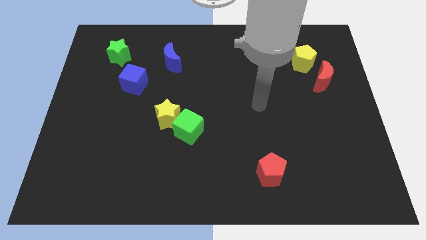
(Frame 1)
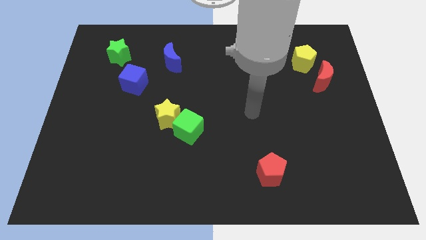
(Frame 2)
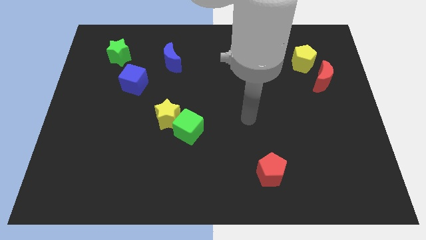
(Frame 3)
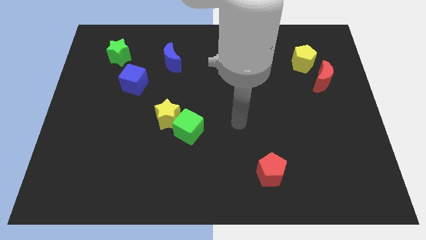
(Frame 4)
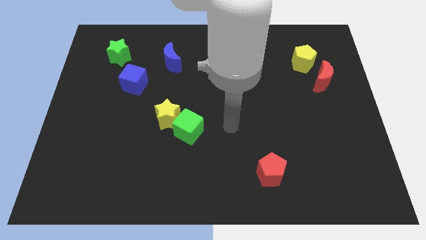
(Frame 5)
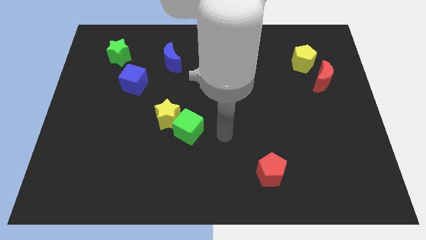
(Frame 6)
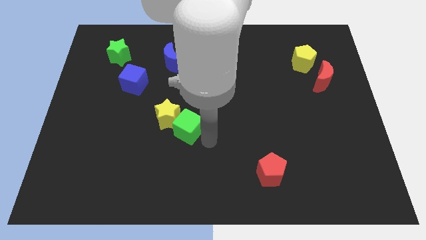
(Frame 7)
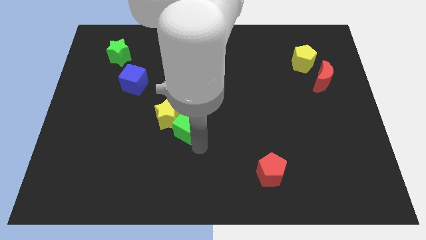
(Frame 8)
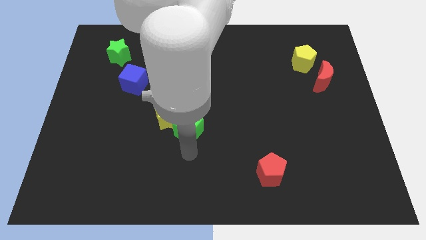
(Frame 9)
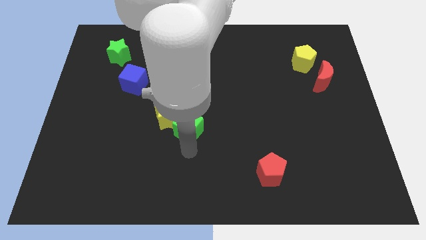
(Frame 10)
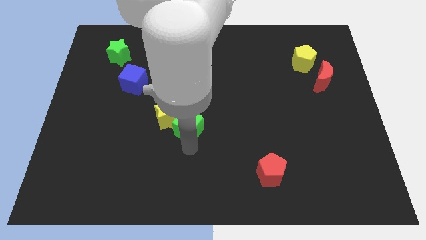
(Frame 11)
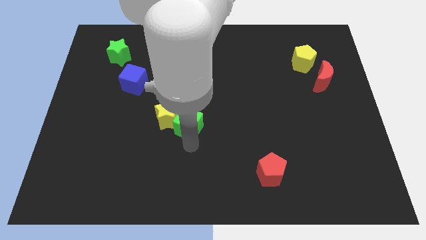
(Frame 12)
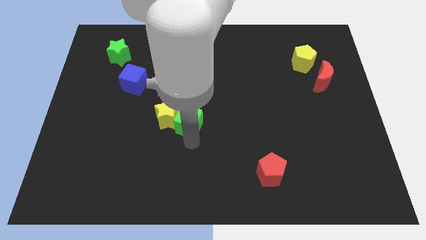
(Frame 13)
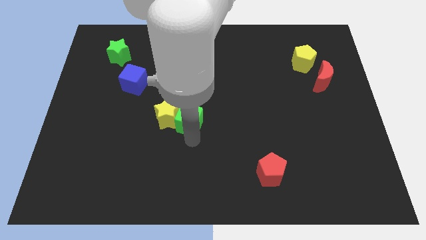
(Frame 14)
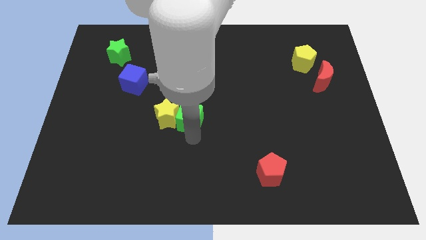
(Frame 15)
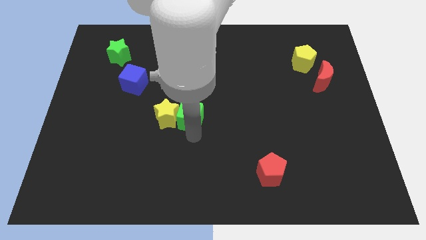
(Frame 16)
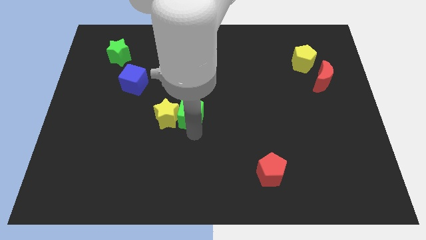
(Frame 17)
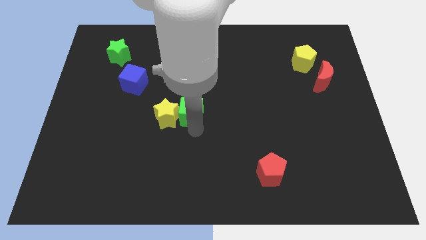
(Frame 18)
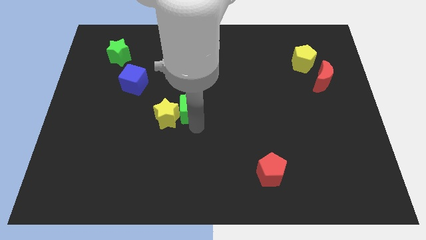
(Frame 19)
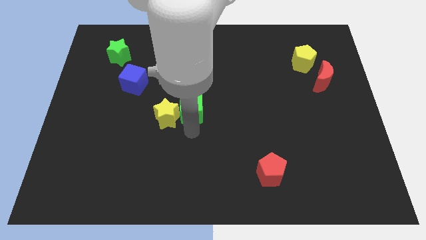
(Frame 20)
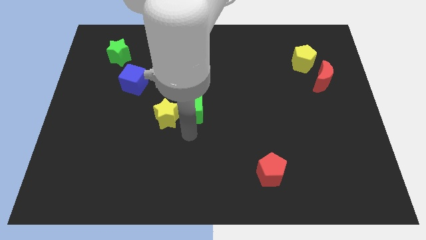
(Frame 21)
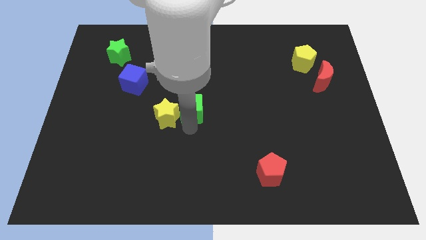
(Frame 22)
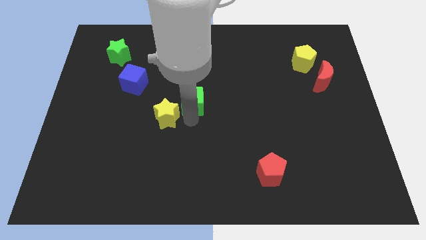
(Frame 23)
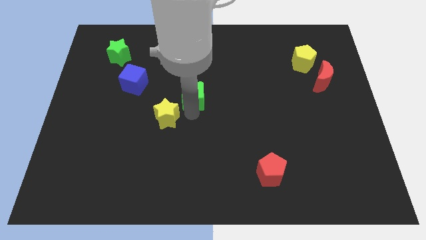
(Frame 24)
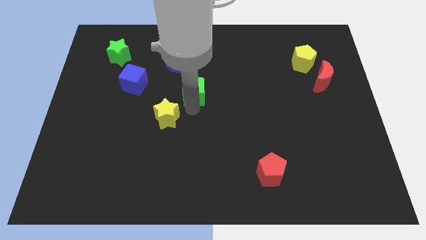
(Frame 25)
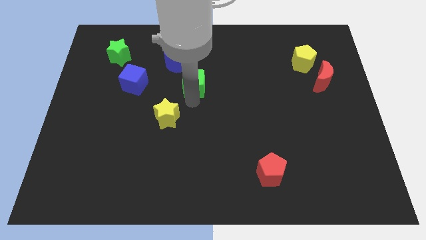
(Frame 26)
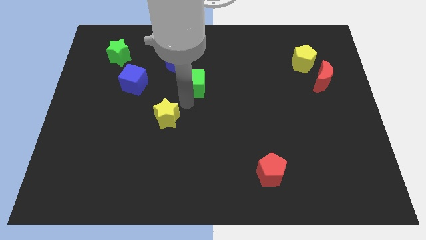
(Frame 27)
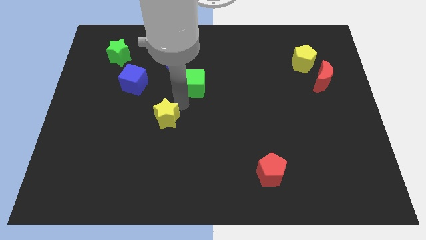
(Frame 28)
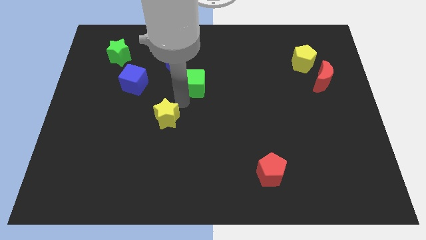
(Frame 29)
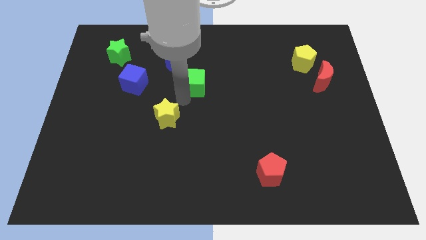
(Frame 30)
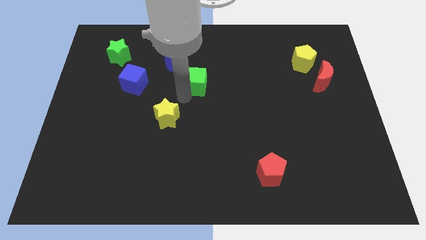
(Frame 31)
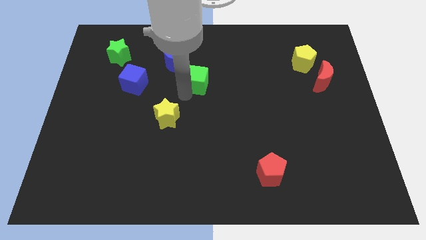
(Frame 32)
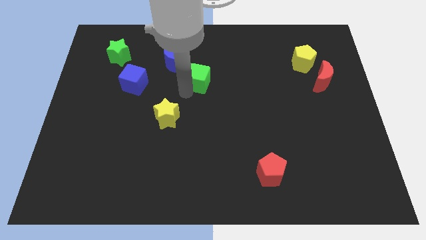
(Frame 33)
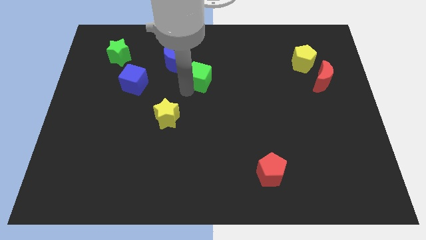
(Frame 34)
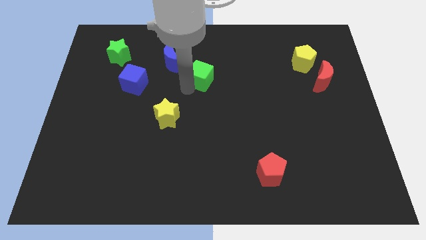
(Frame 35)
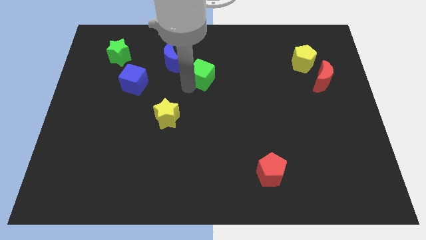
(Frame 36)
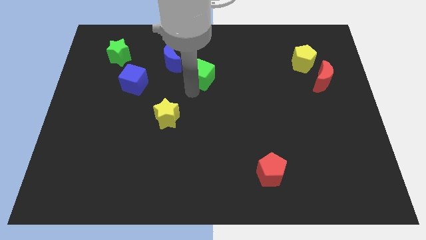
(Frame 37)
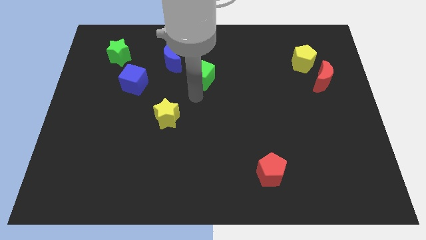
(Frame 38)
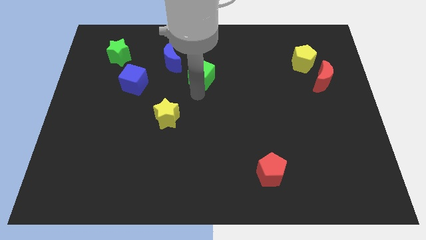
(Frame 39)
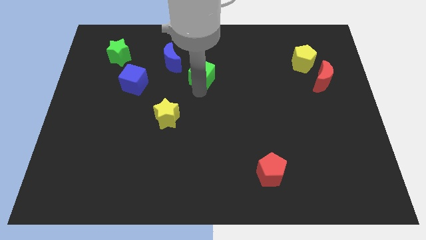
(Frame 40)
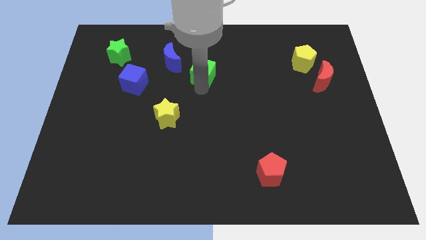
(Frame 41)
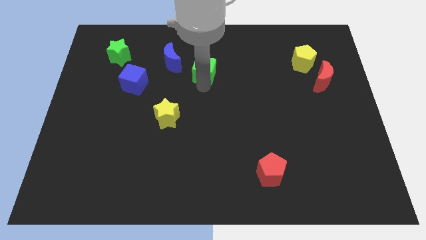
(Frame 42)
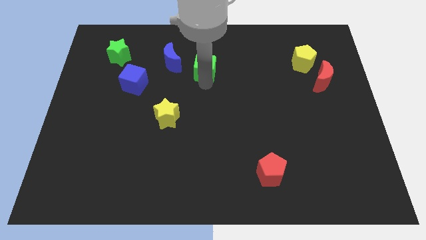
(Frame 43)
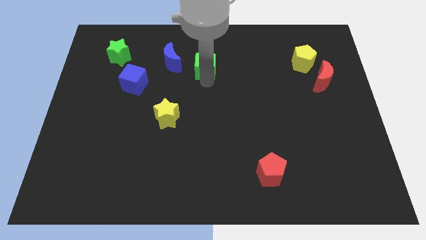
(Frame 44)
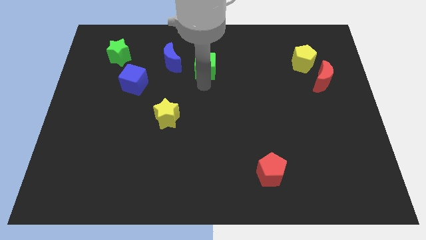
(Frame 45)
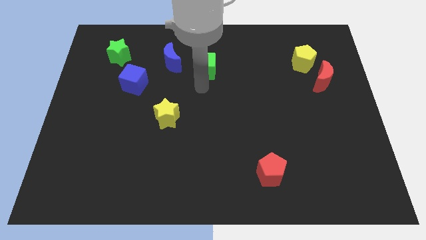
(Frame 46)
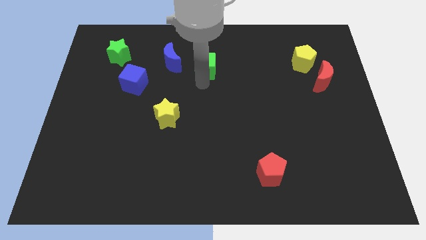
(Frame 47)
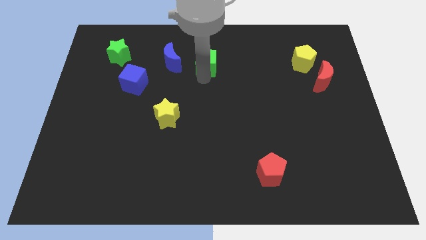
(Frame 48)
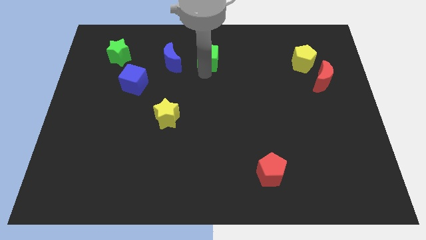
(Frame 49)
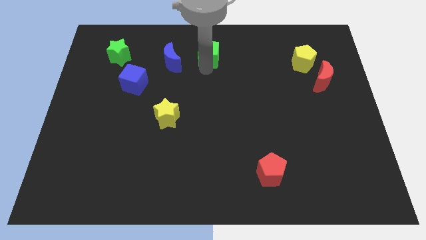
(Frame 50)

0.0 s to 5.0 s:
move the green cube to the top side

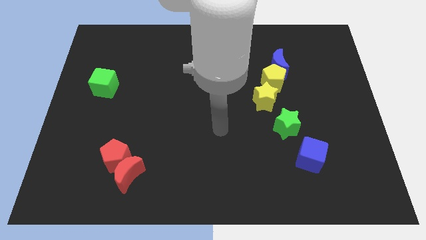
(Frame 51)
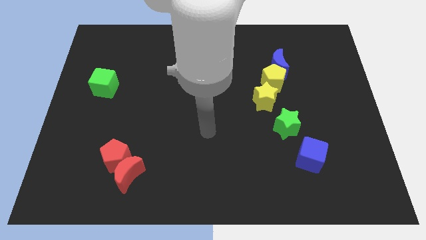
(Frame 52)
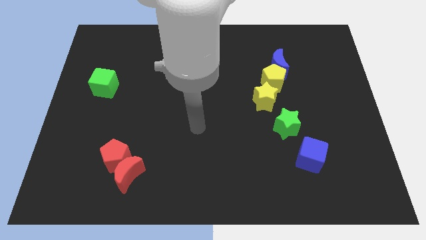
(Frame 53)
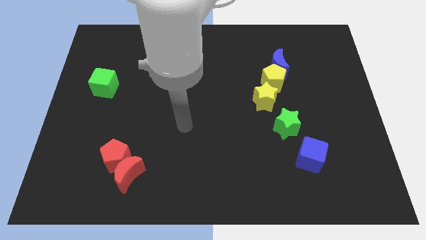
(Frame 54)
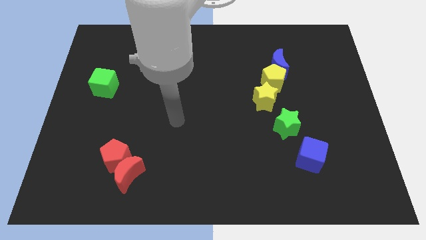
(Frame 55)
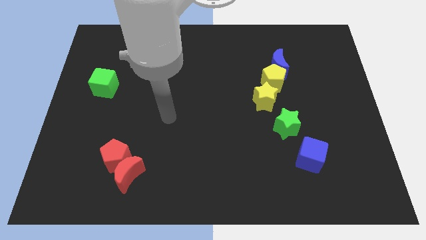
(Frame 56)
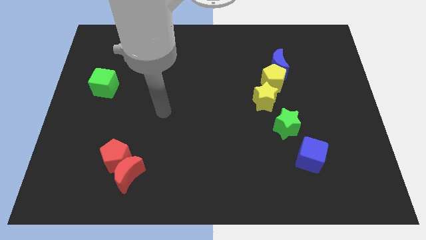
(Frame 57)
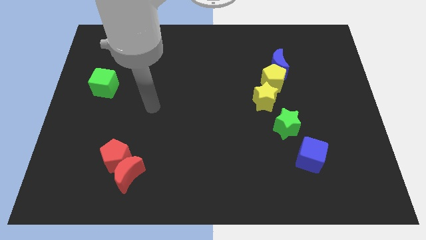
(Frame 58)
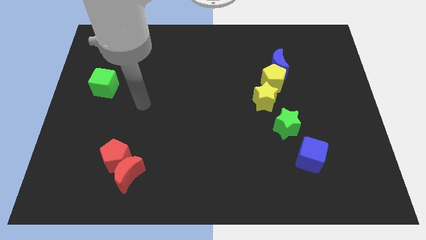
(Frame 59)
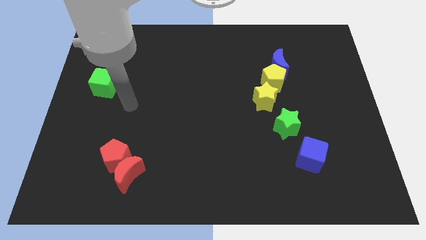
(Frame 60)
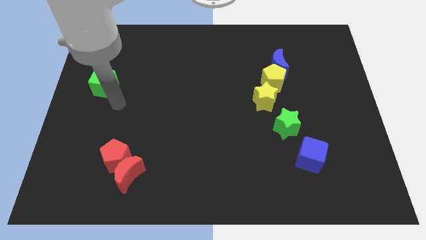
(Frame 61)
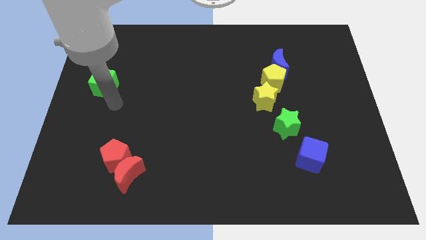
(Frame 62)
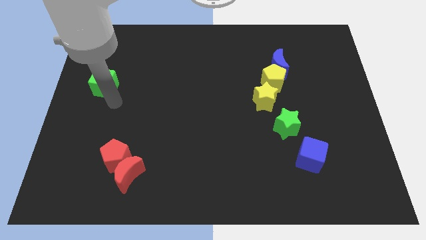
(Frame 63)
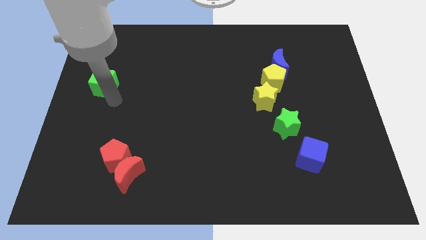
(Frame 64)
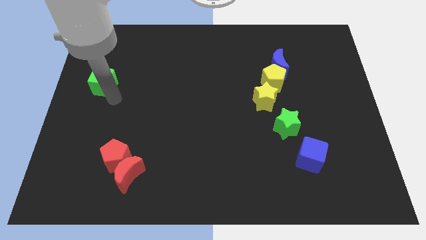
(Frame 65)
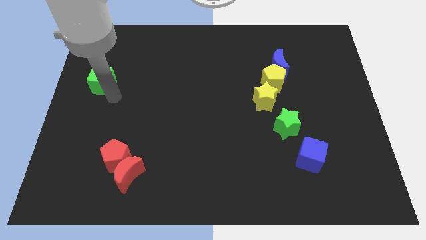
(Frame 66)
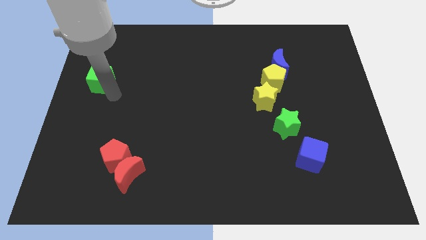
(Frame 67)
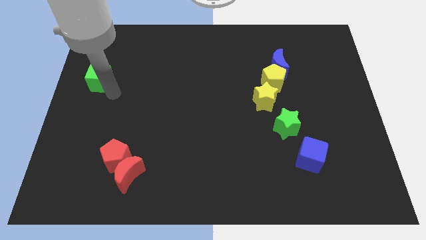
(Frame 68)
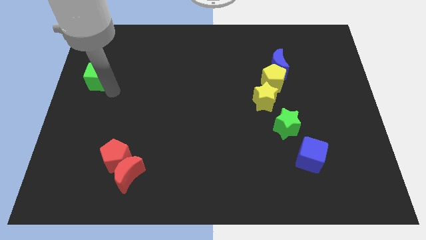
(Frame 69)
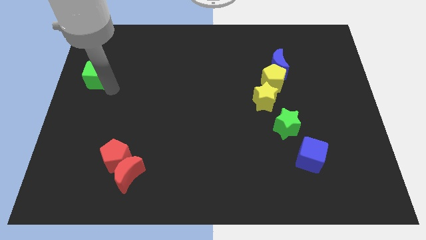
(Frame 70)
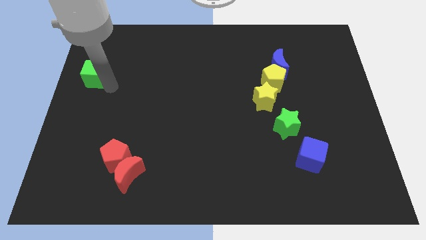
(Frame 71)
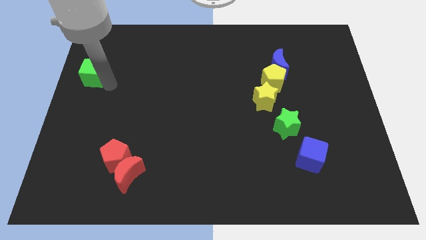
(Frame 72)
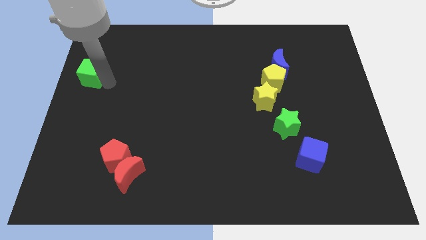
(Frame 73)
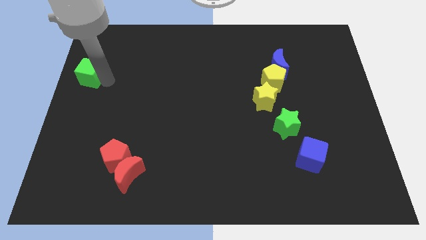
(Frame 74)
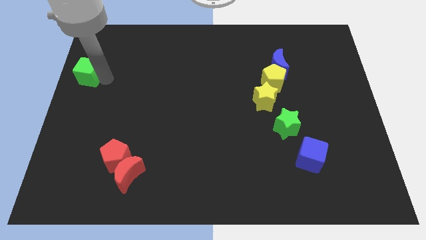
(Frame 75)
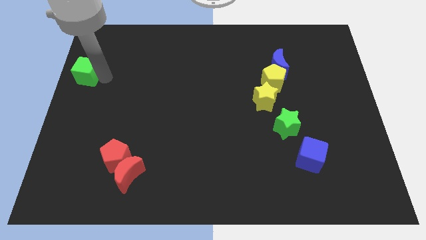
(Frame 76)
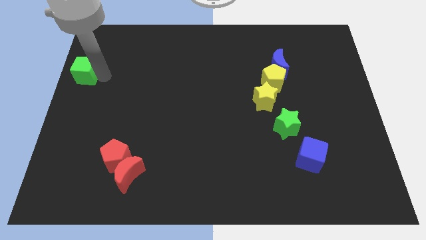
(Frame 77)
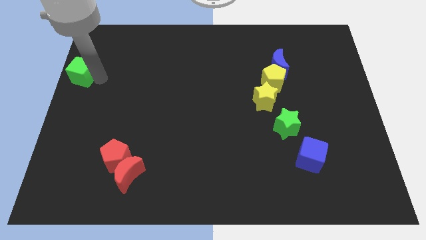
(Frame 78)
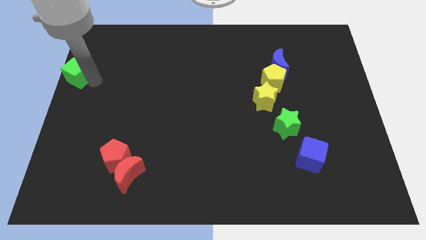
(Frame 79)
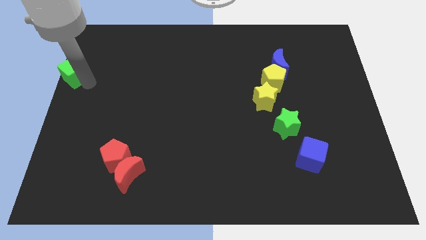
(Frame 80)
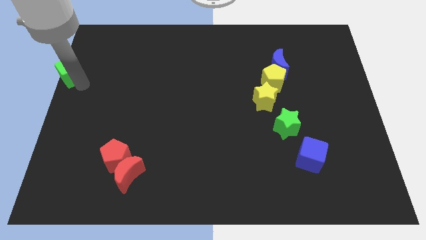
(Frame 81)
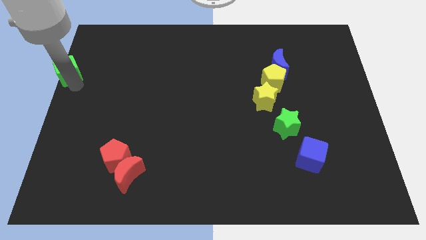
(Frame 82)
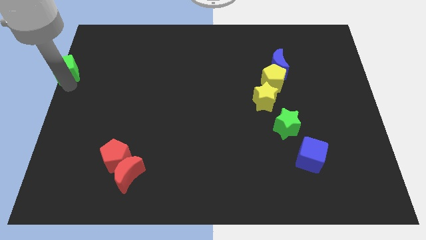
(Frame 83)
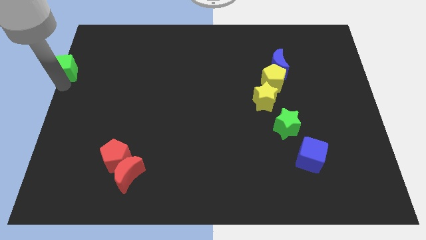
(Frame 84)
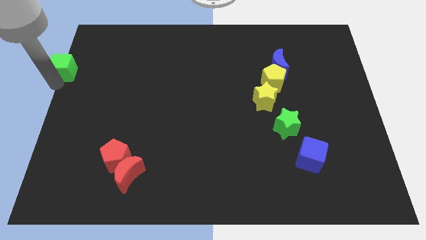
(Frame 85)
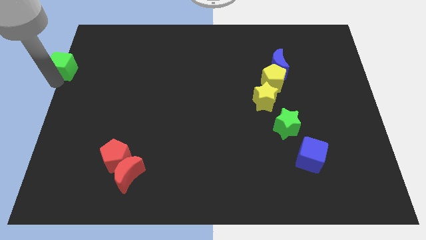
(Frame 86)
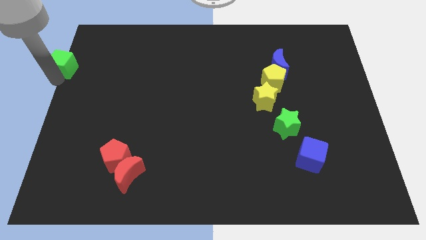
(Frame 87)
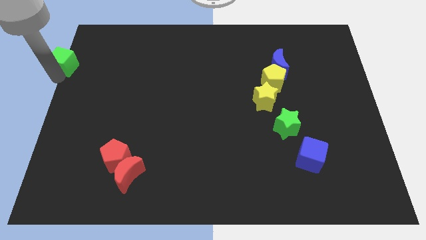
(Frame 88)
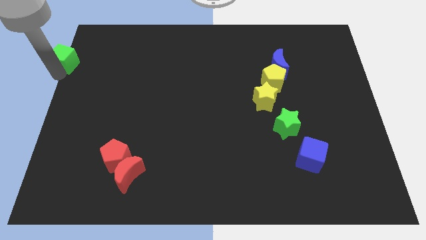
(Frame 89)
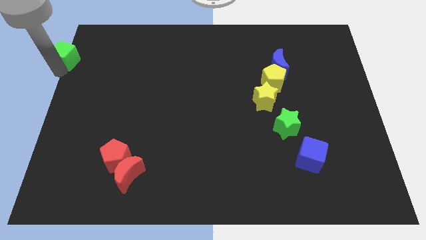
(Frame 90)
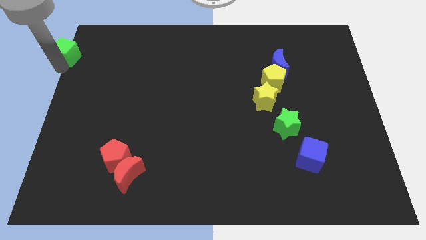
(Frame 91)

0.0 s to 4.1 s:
slide the green cube to the top left
